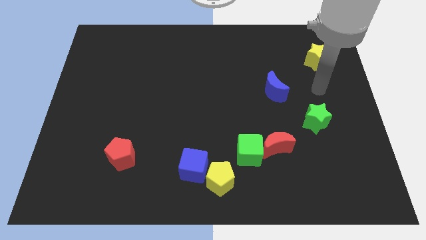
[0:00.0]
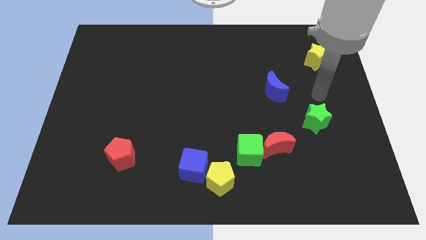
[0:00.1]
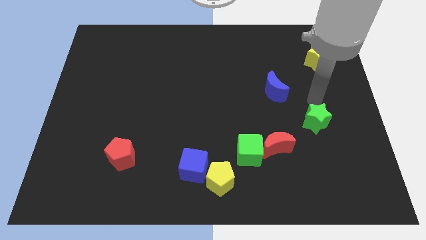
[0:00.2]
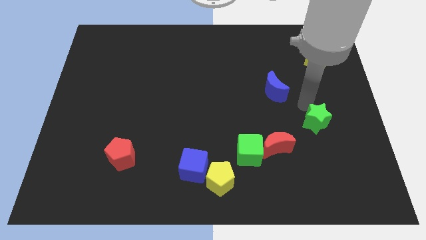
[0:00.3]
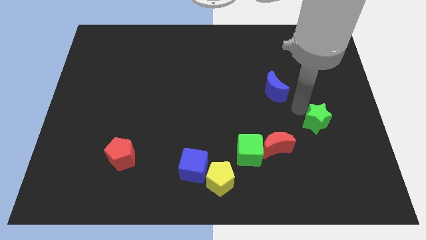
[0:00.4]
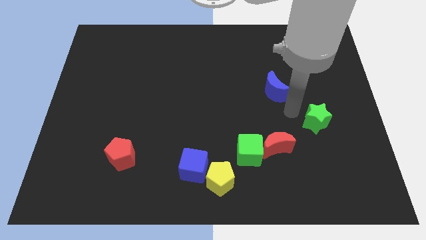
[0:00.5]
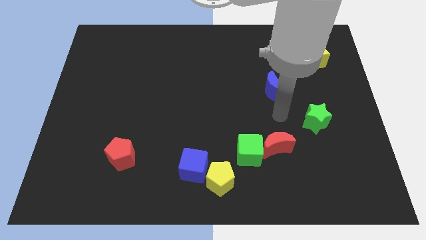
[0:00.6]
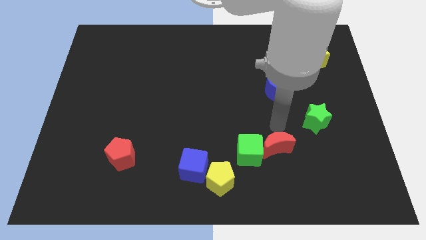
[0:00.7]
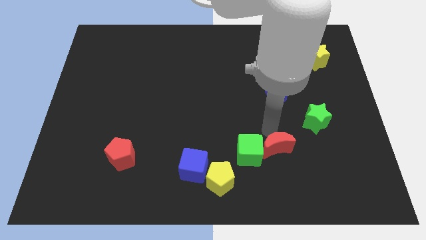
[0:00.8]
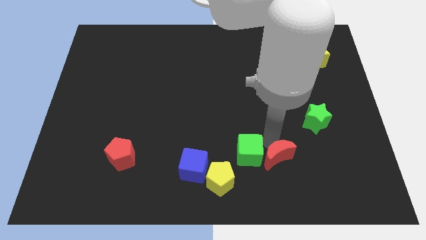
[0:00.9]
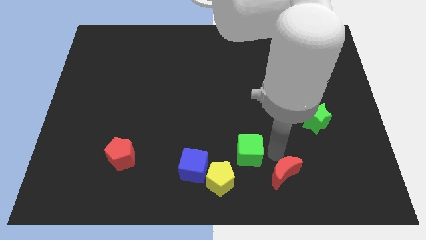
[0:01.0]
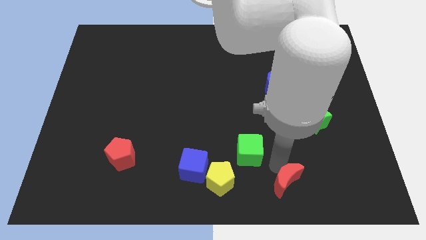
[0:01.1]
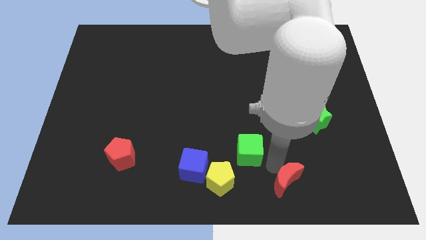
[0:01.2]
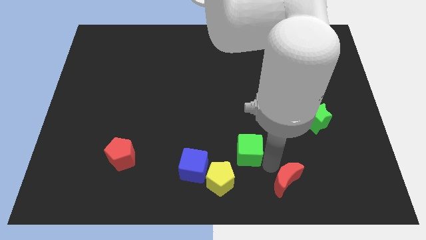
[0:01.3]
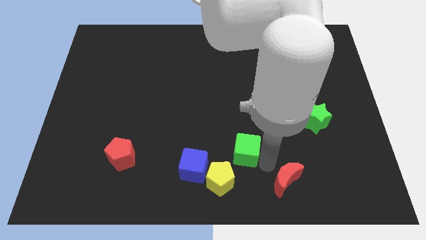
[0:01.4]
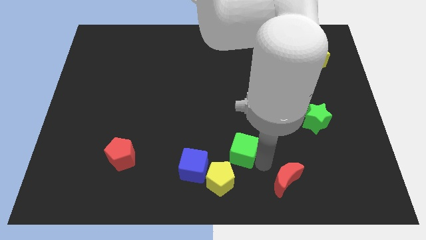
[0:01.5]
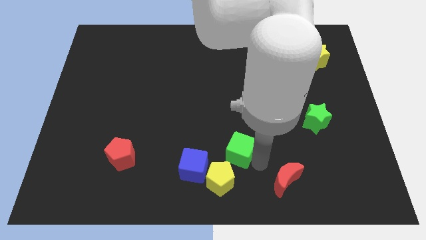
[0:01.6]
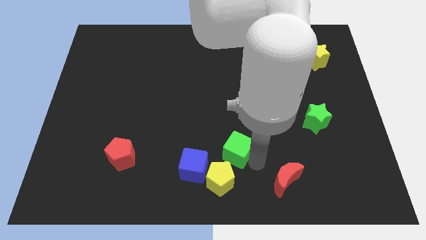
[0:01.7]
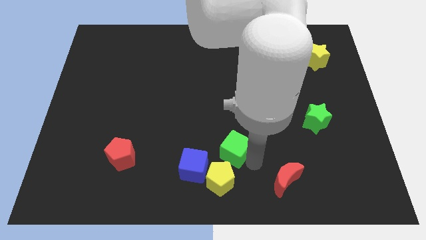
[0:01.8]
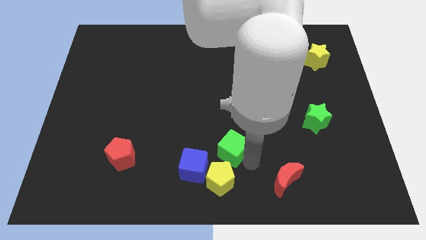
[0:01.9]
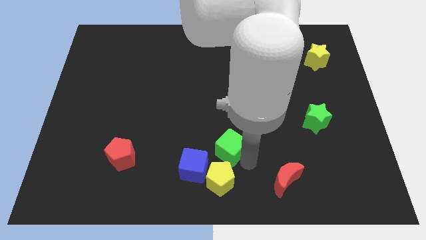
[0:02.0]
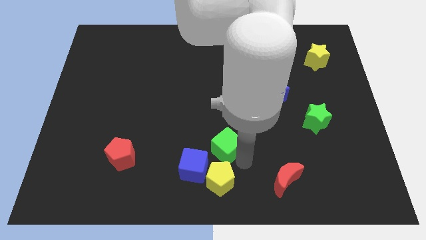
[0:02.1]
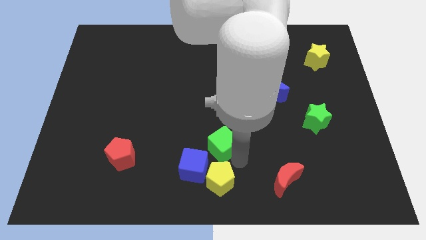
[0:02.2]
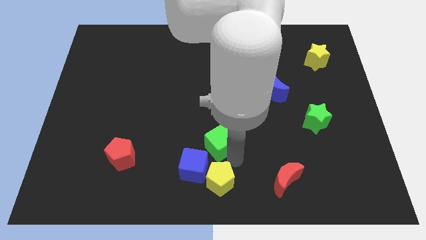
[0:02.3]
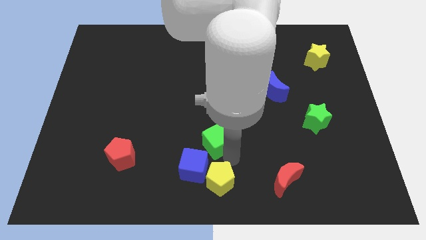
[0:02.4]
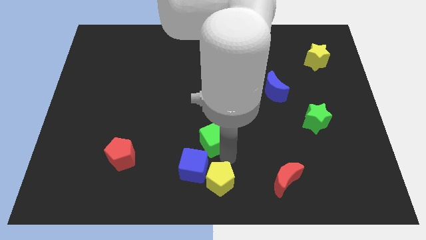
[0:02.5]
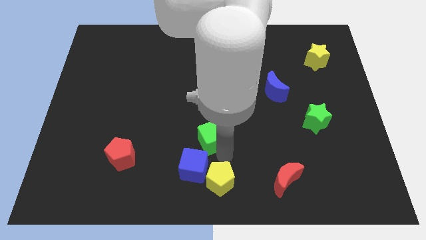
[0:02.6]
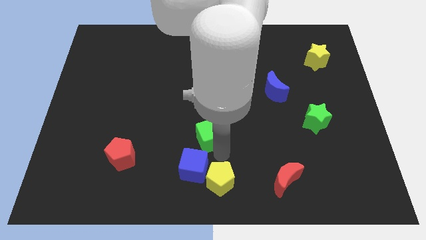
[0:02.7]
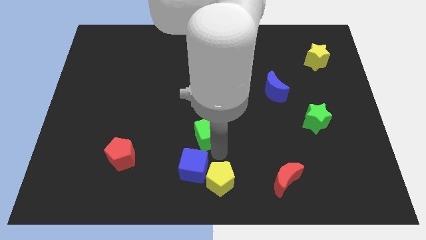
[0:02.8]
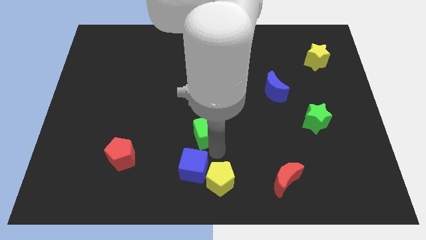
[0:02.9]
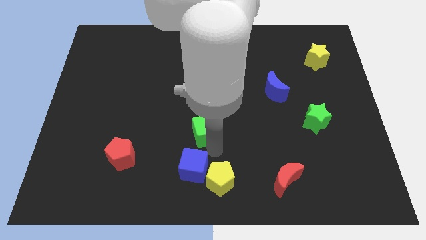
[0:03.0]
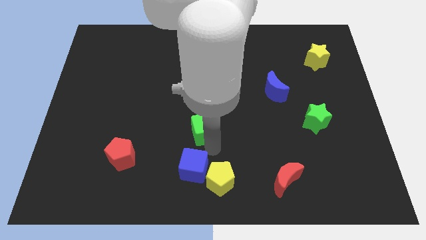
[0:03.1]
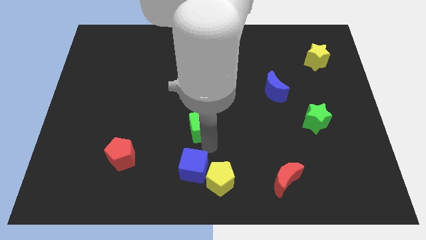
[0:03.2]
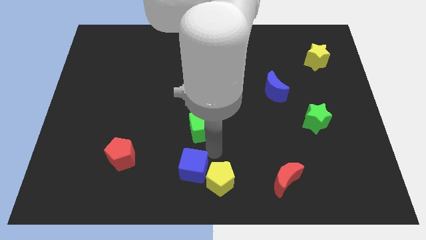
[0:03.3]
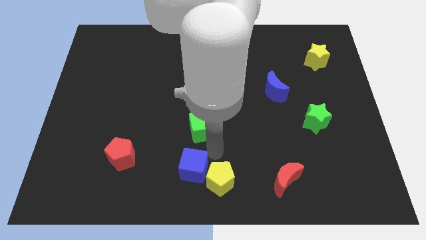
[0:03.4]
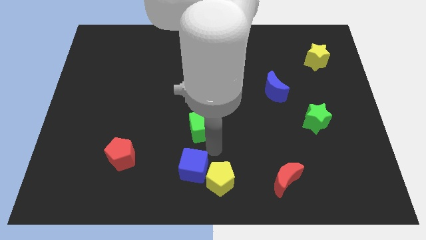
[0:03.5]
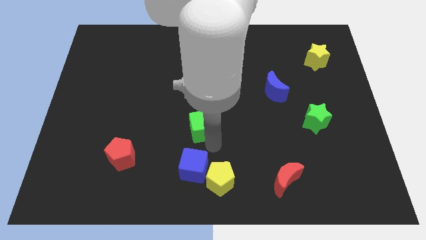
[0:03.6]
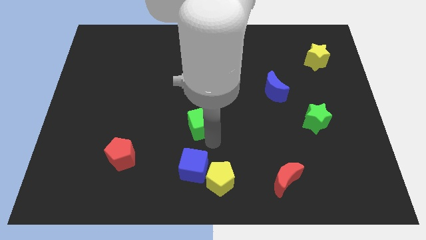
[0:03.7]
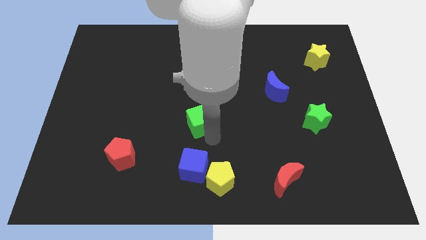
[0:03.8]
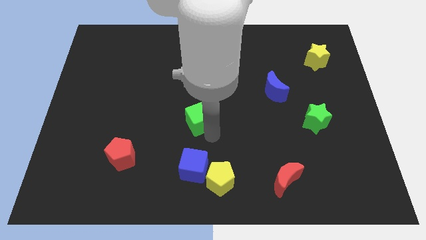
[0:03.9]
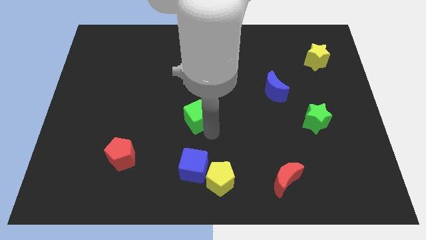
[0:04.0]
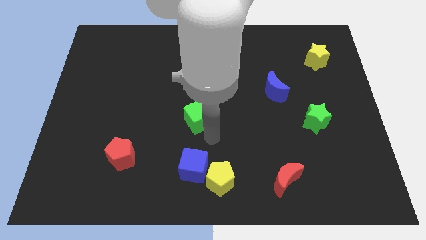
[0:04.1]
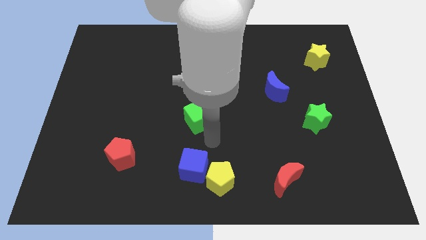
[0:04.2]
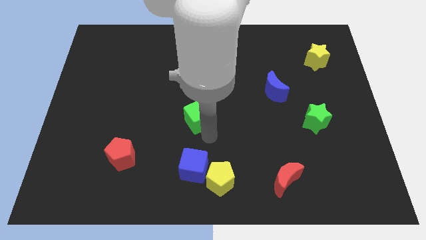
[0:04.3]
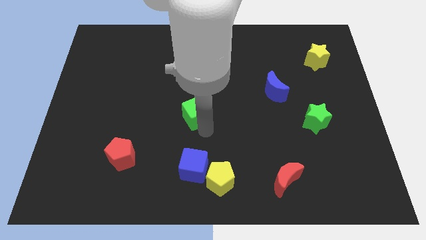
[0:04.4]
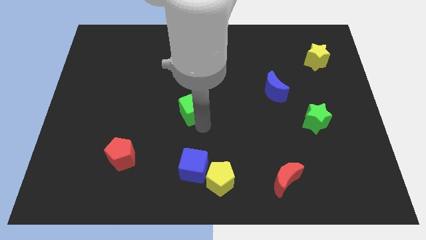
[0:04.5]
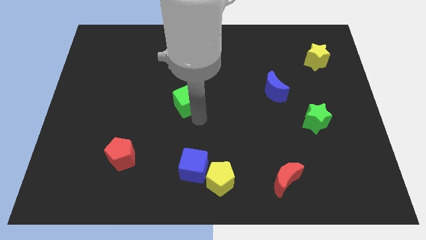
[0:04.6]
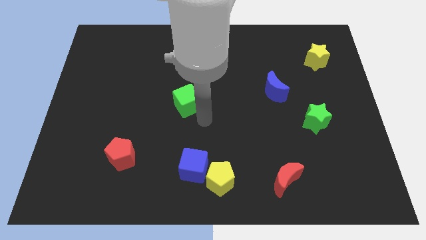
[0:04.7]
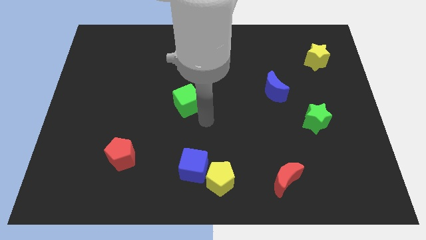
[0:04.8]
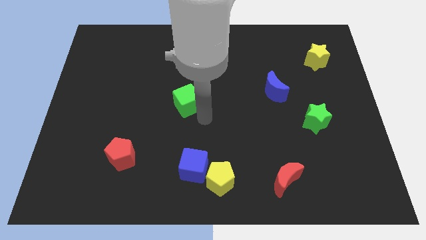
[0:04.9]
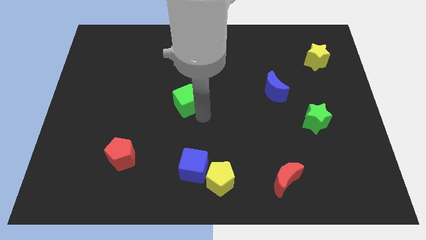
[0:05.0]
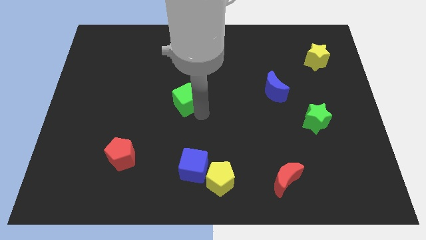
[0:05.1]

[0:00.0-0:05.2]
move the green cube diagonally up and to the left

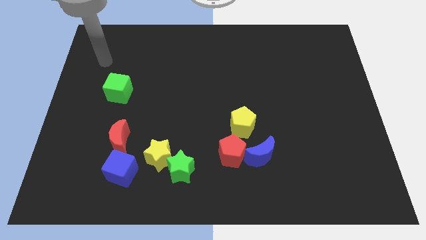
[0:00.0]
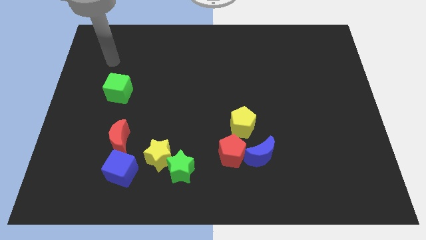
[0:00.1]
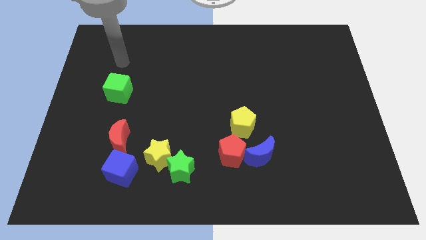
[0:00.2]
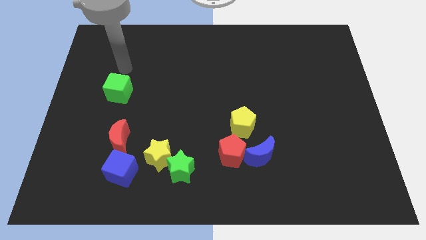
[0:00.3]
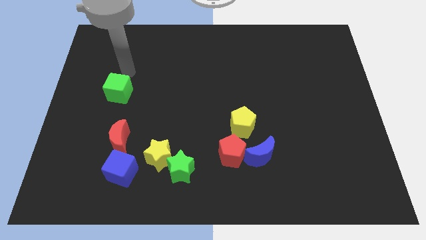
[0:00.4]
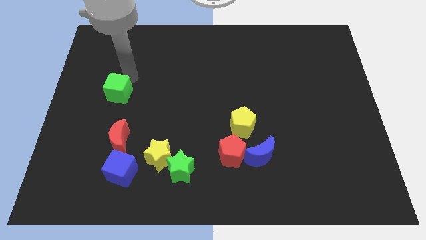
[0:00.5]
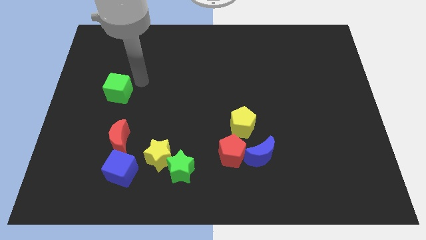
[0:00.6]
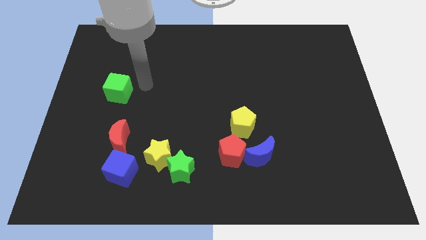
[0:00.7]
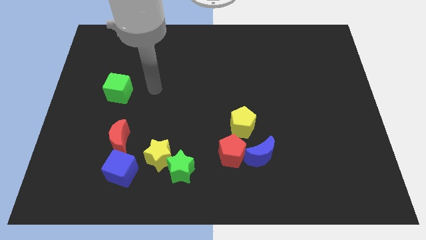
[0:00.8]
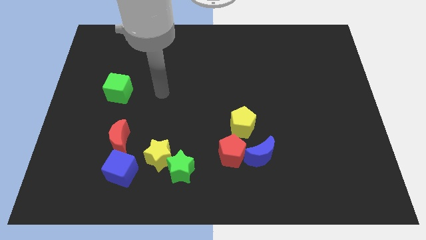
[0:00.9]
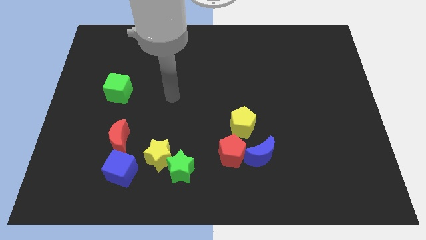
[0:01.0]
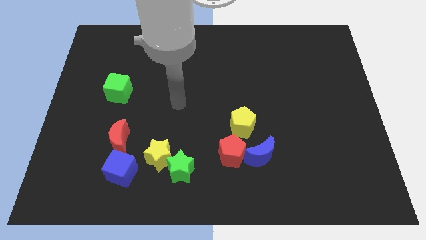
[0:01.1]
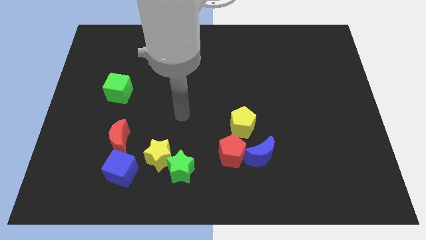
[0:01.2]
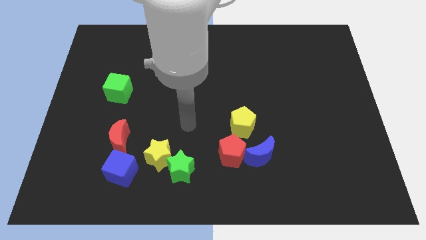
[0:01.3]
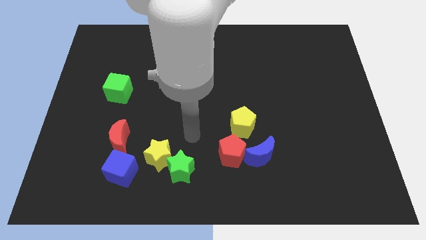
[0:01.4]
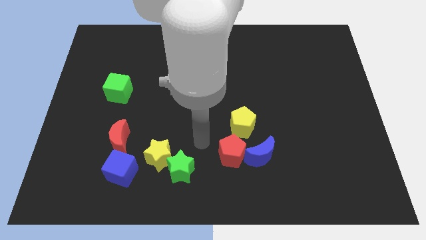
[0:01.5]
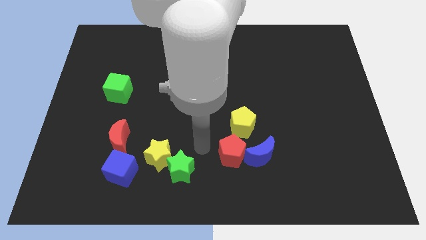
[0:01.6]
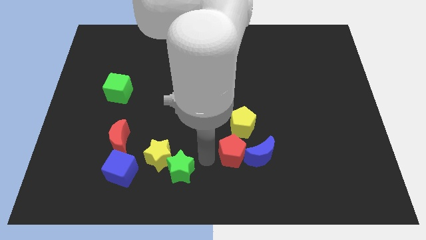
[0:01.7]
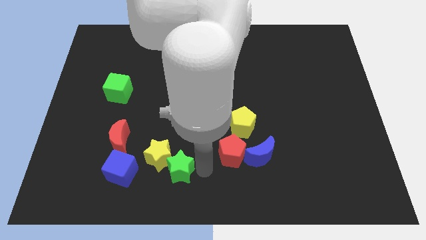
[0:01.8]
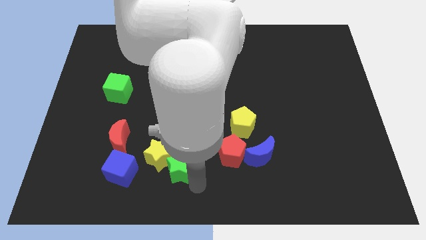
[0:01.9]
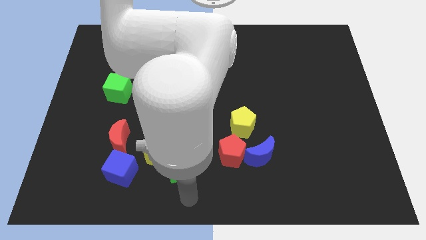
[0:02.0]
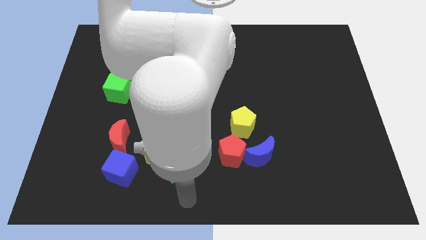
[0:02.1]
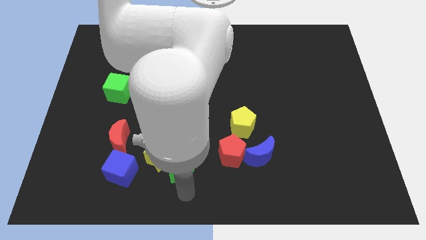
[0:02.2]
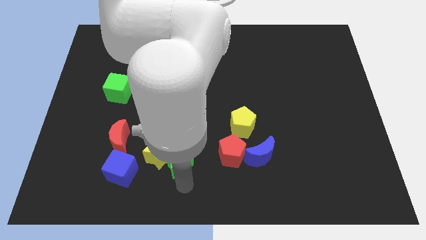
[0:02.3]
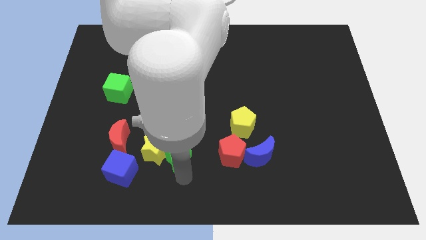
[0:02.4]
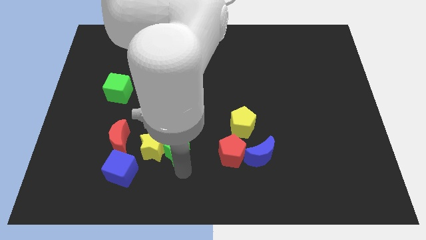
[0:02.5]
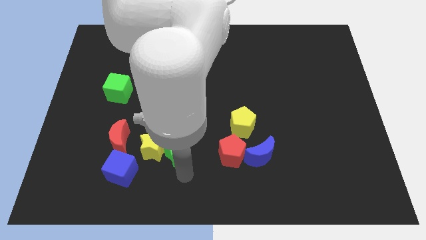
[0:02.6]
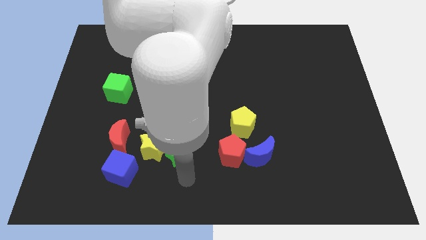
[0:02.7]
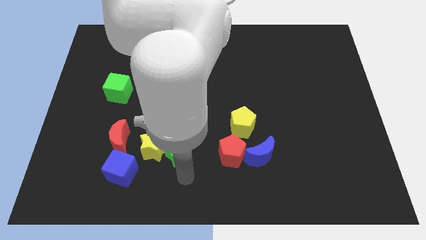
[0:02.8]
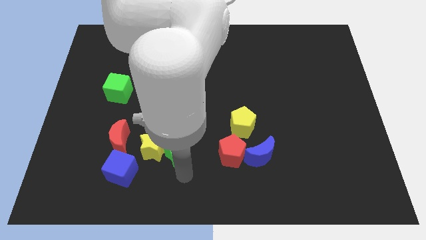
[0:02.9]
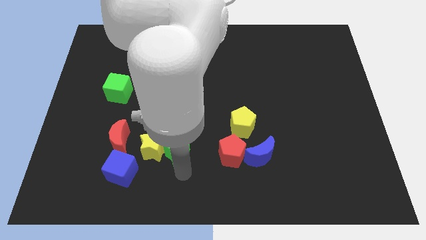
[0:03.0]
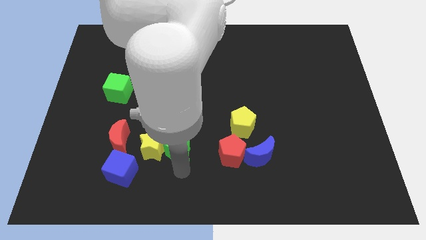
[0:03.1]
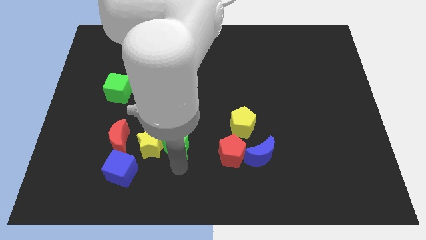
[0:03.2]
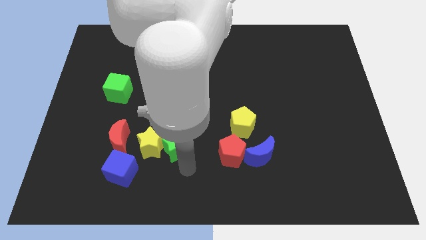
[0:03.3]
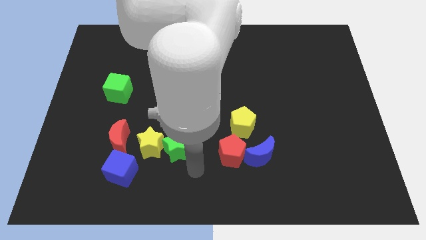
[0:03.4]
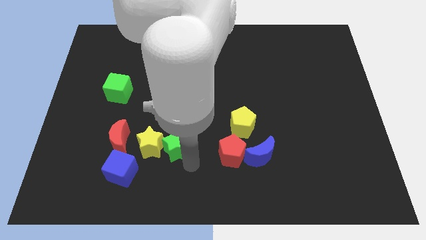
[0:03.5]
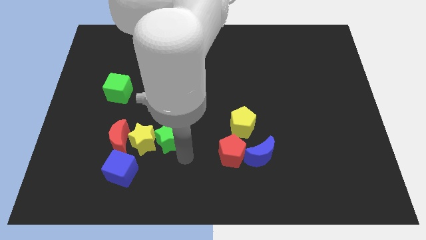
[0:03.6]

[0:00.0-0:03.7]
move the green star upwards and to the left diagonally somewhat
